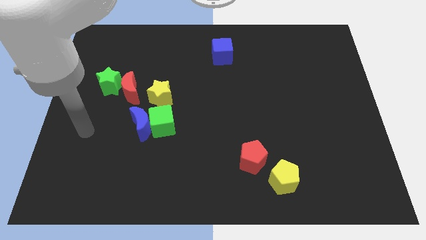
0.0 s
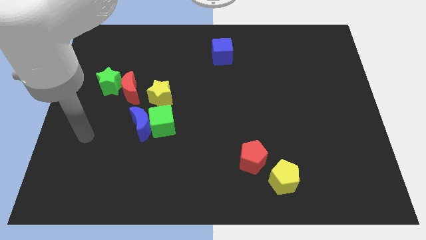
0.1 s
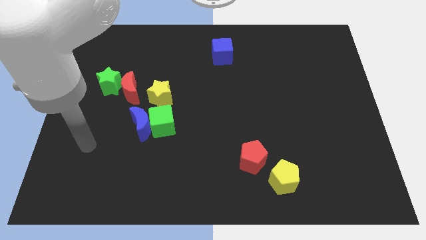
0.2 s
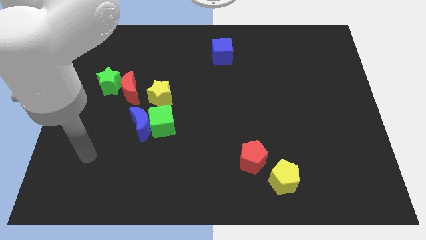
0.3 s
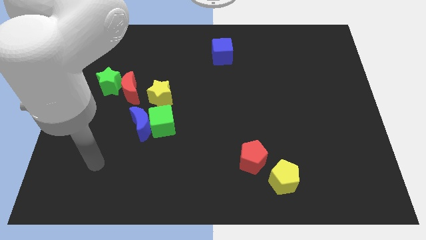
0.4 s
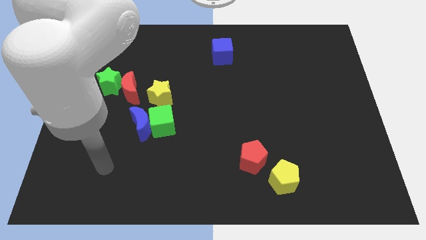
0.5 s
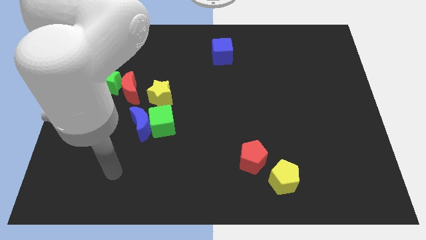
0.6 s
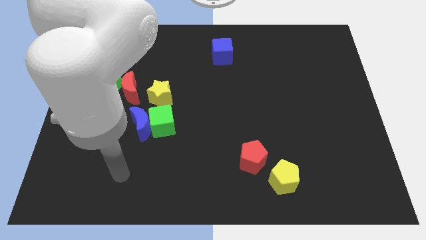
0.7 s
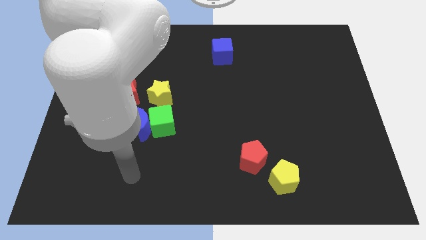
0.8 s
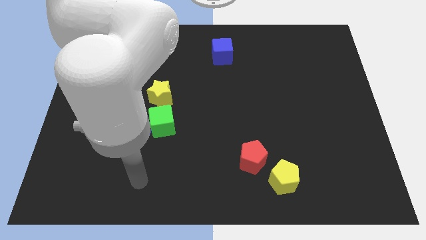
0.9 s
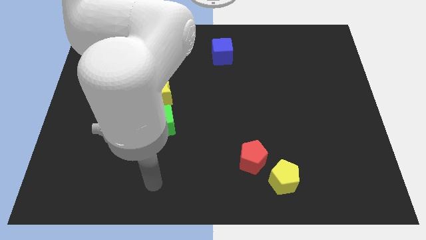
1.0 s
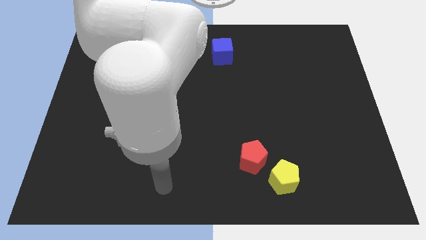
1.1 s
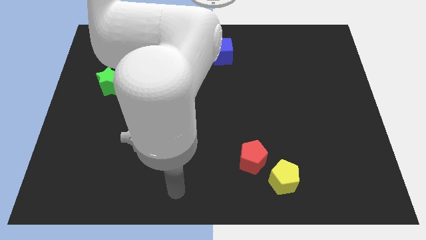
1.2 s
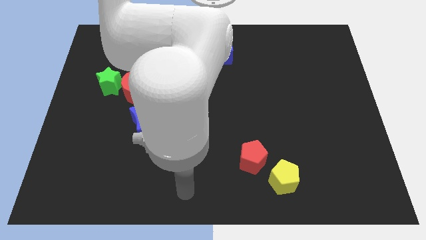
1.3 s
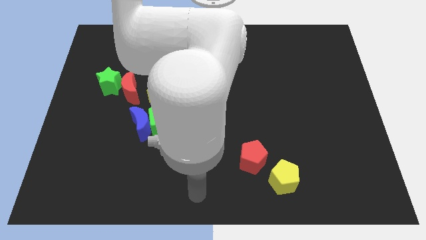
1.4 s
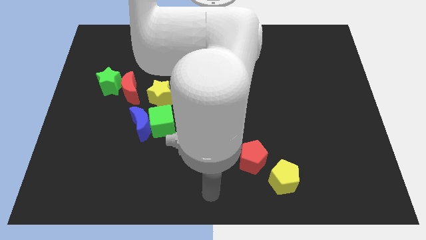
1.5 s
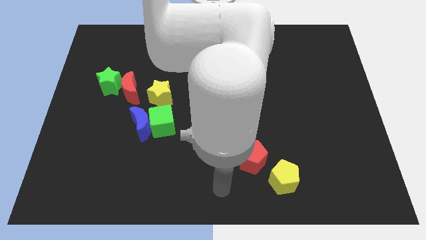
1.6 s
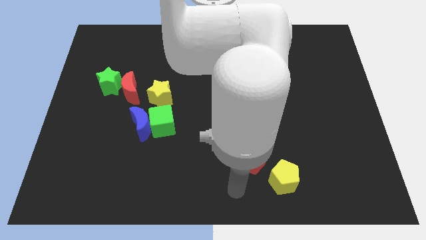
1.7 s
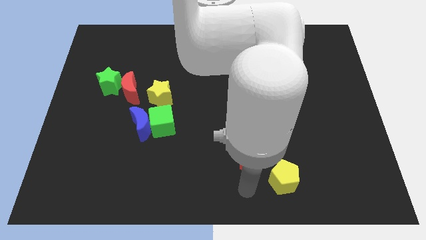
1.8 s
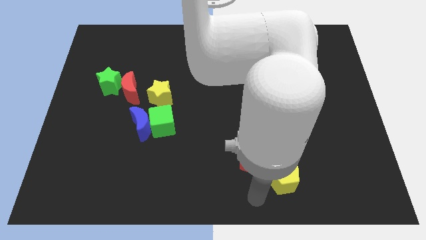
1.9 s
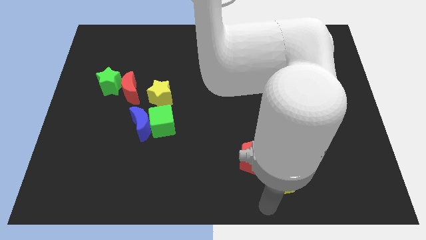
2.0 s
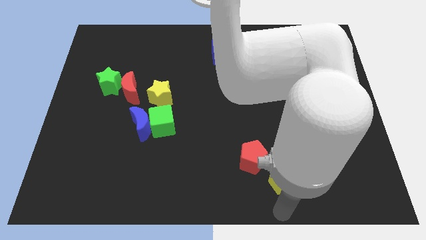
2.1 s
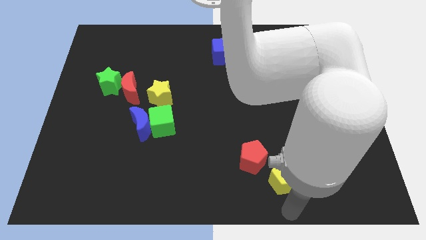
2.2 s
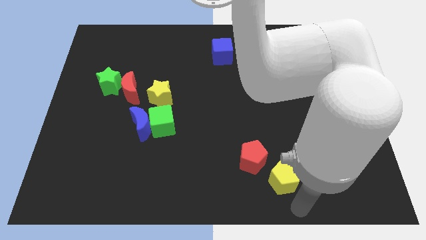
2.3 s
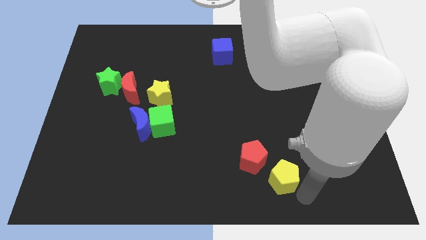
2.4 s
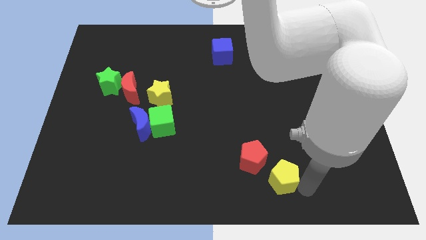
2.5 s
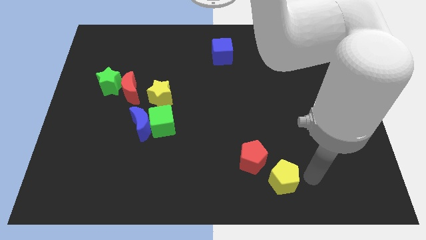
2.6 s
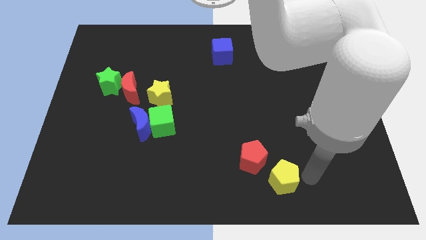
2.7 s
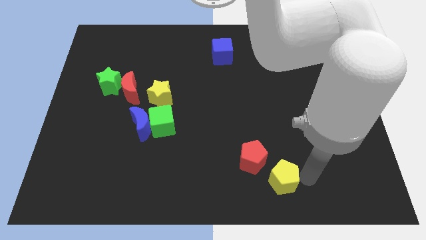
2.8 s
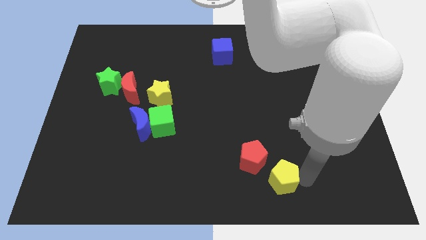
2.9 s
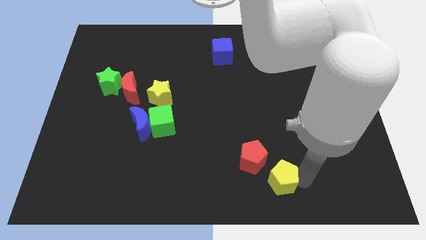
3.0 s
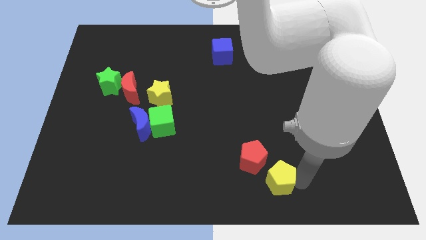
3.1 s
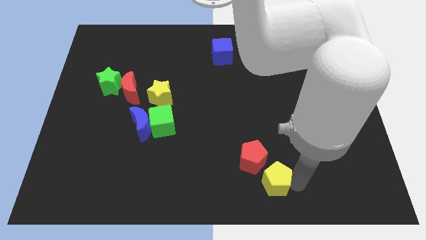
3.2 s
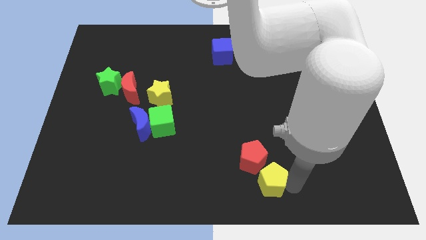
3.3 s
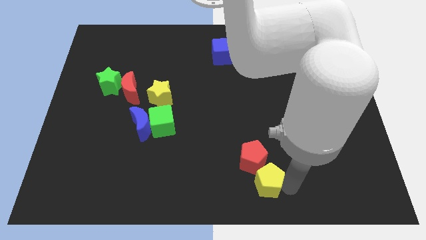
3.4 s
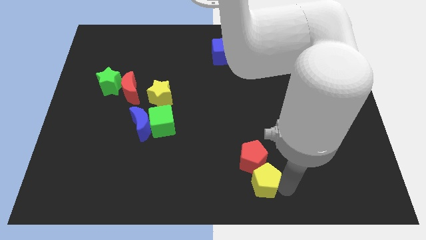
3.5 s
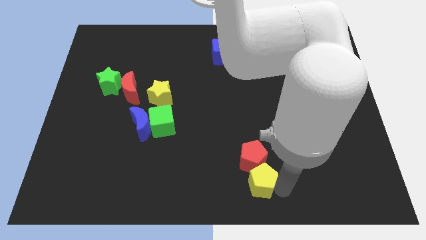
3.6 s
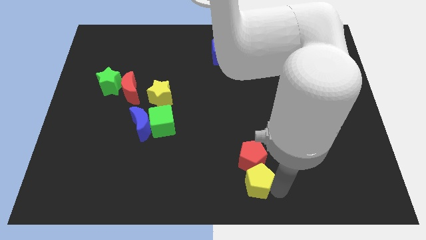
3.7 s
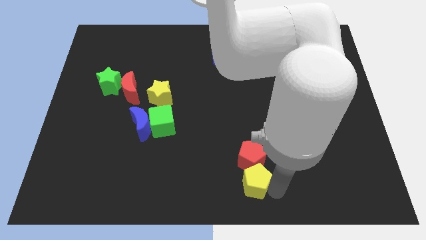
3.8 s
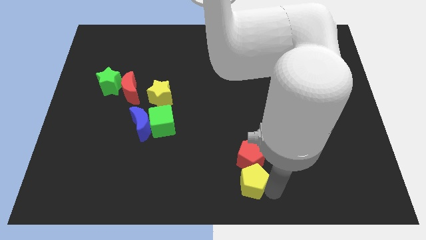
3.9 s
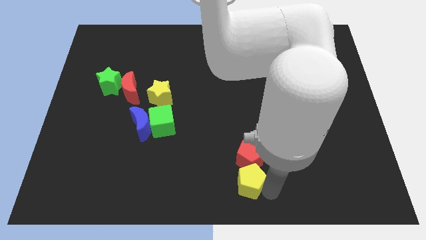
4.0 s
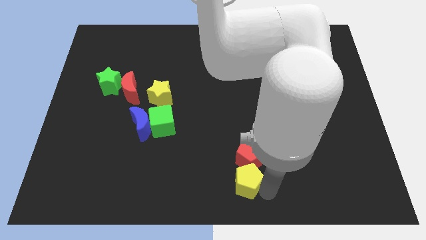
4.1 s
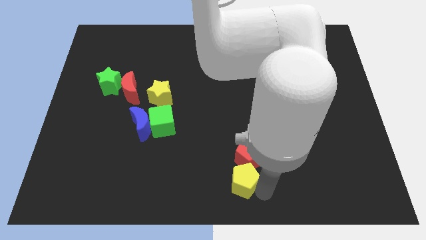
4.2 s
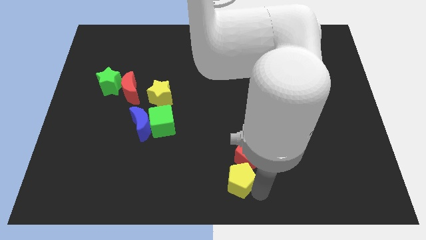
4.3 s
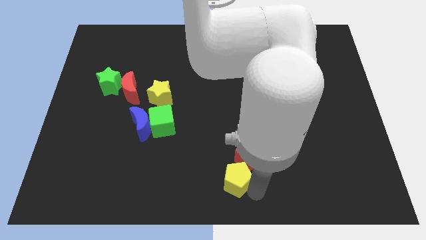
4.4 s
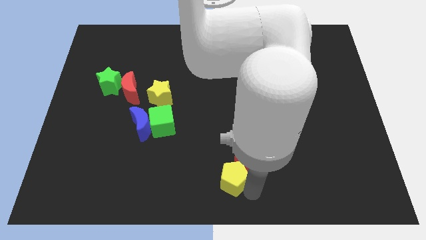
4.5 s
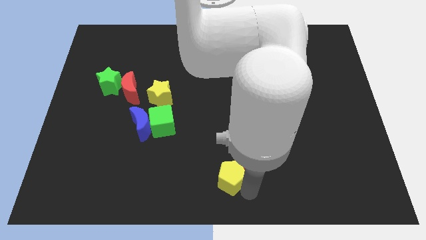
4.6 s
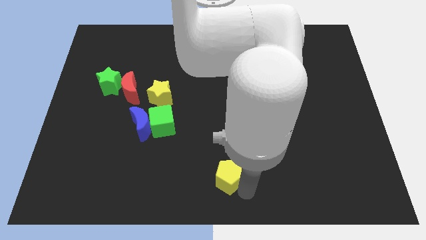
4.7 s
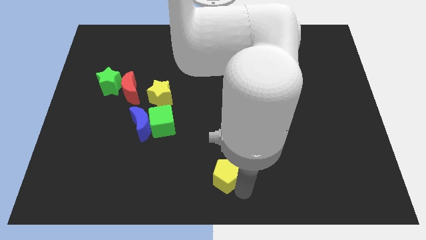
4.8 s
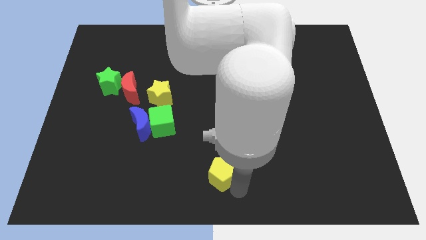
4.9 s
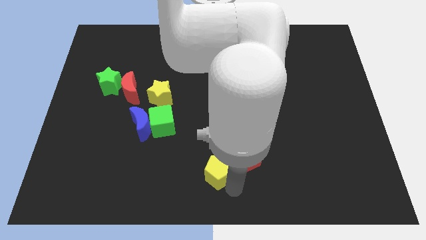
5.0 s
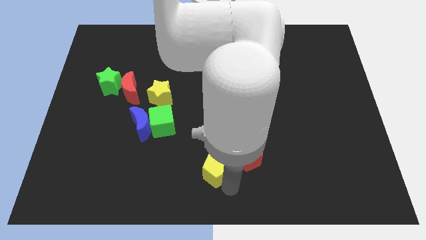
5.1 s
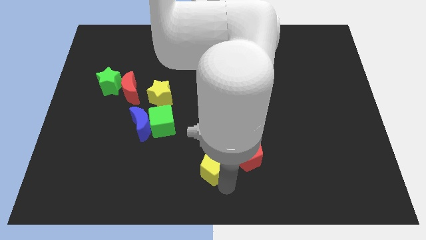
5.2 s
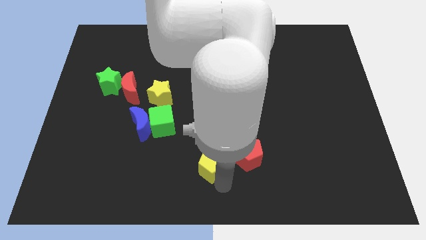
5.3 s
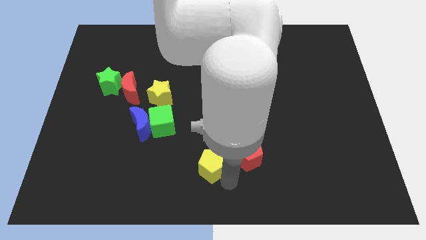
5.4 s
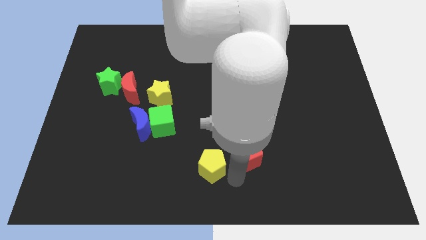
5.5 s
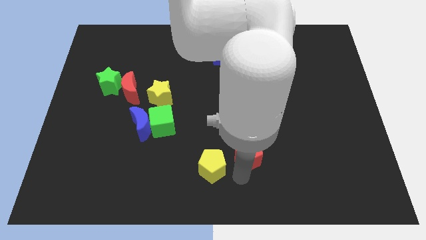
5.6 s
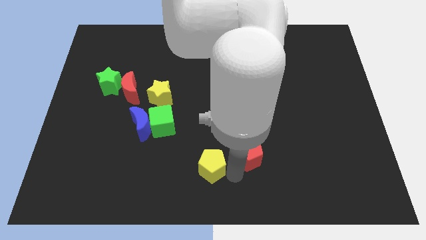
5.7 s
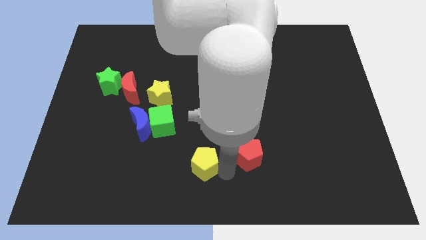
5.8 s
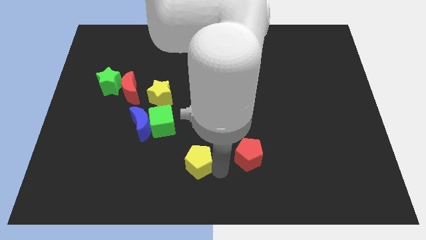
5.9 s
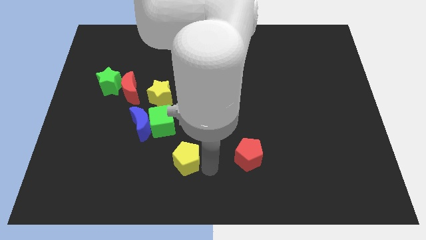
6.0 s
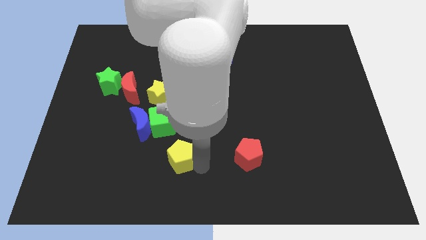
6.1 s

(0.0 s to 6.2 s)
slide the yellow pentagon diagonally down and to the right of the blue moon
